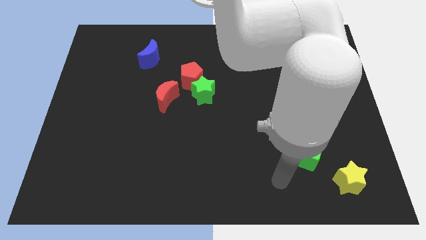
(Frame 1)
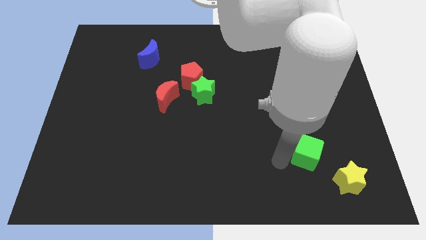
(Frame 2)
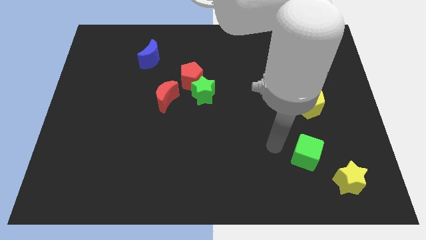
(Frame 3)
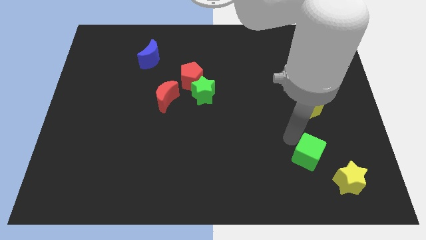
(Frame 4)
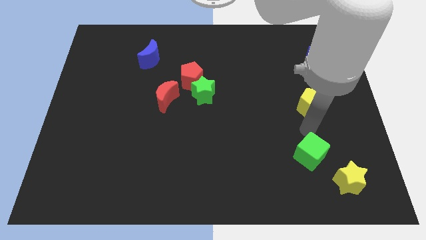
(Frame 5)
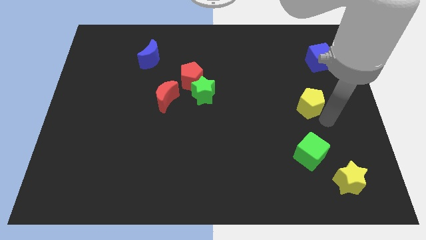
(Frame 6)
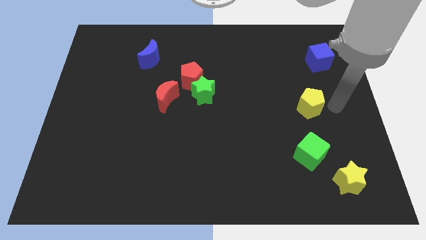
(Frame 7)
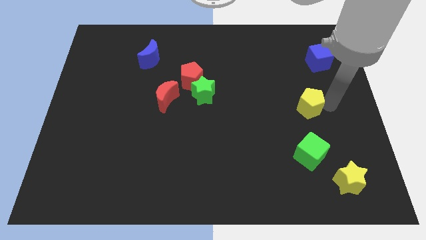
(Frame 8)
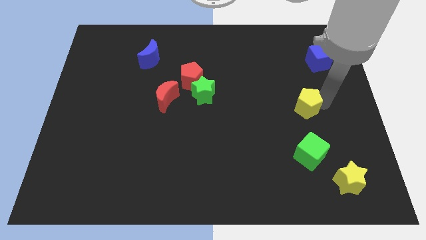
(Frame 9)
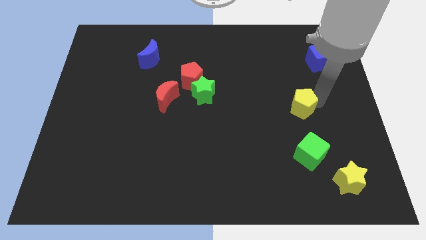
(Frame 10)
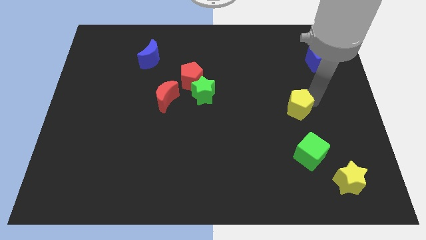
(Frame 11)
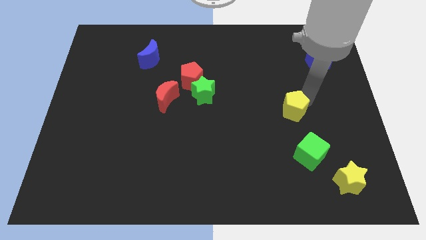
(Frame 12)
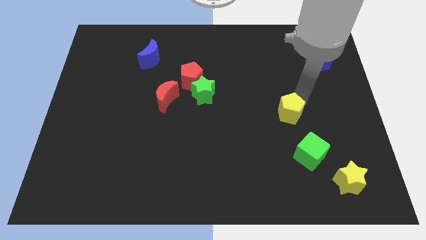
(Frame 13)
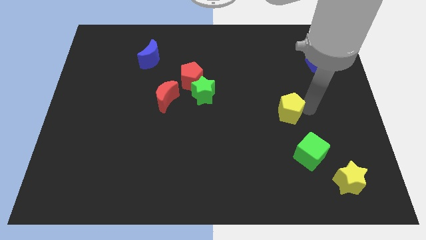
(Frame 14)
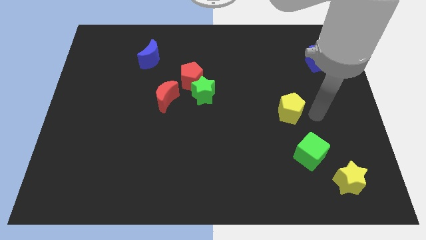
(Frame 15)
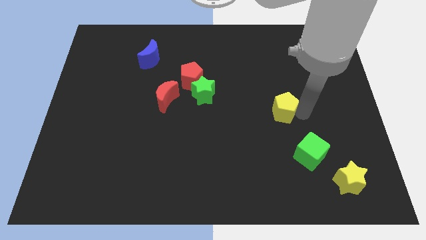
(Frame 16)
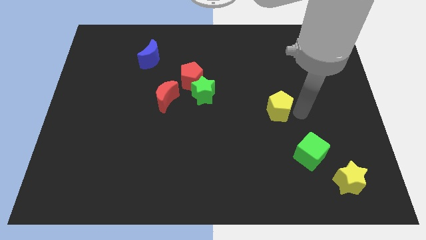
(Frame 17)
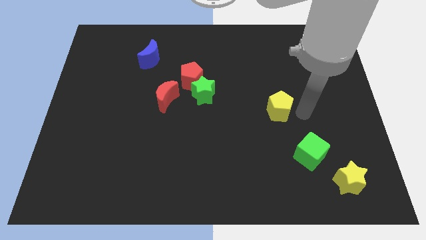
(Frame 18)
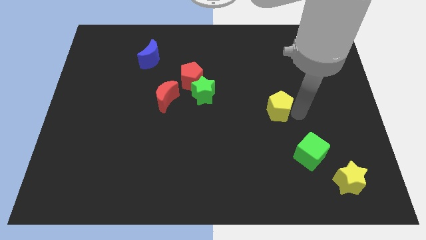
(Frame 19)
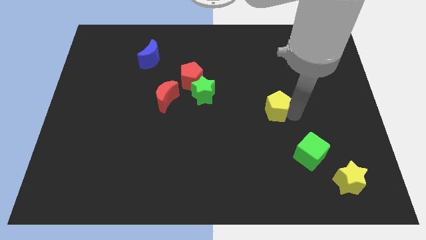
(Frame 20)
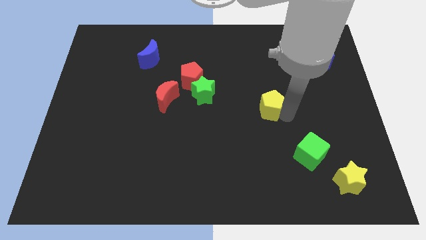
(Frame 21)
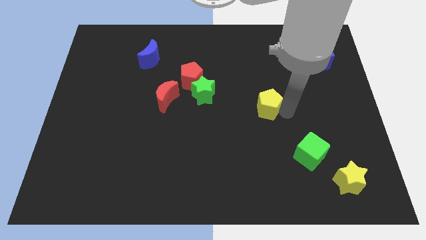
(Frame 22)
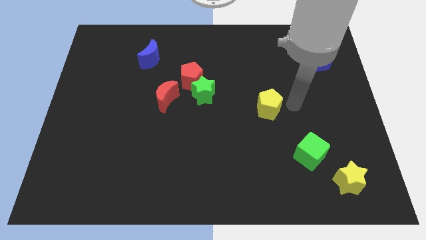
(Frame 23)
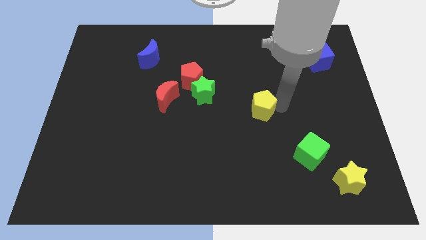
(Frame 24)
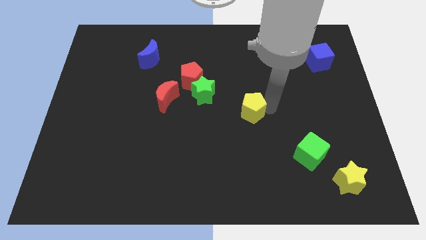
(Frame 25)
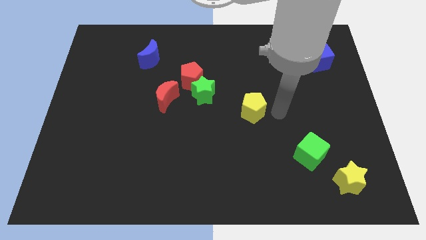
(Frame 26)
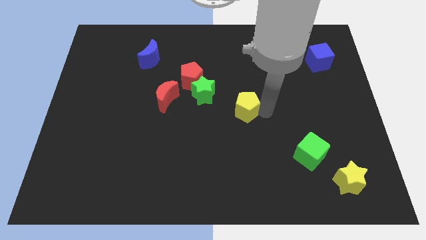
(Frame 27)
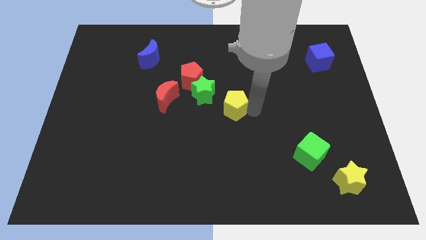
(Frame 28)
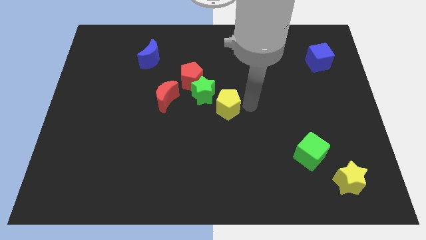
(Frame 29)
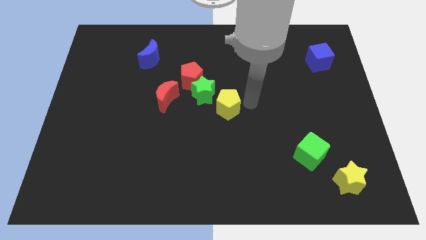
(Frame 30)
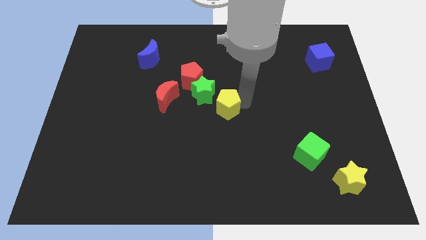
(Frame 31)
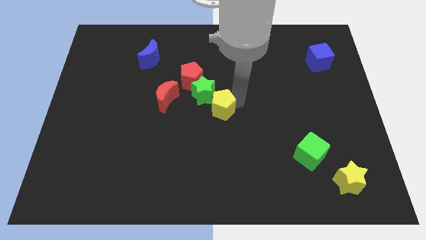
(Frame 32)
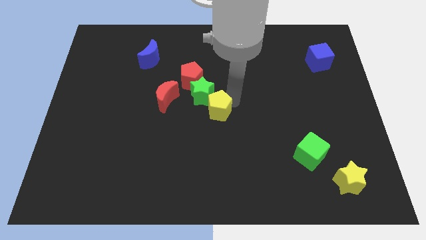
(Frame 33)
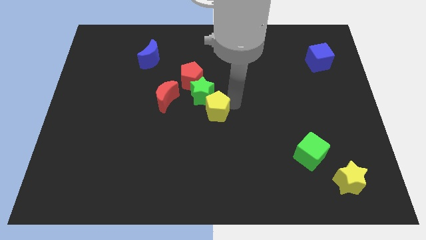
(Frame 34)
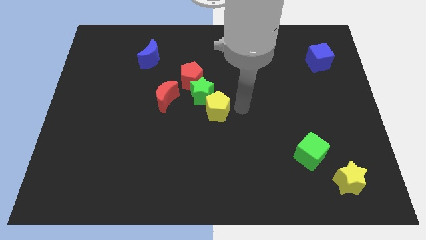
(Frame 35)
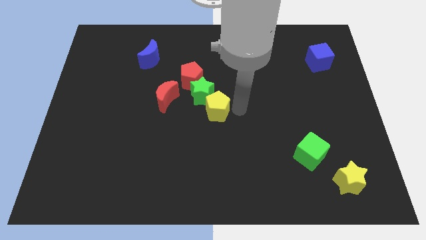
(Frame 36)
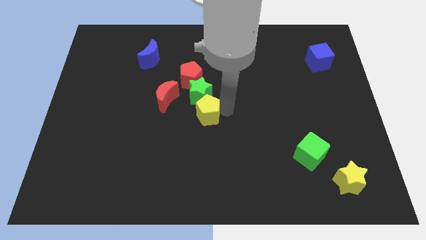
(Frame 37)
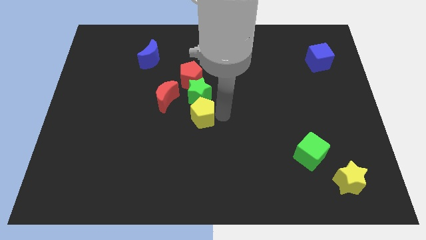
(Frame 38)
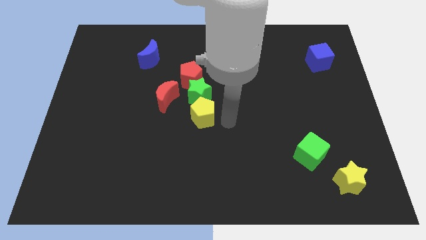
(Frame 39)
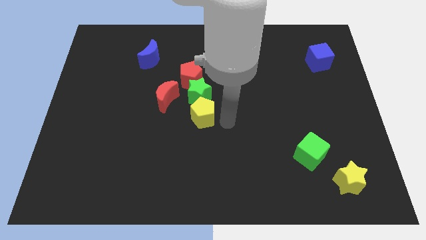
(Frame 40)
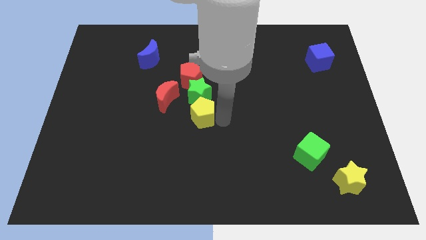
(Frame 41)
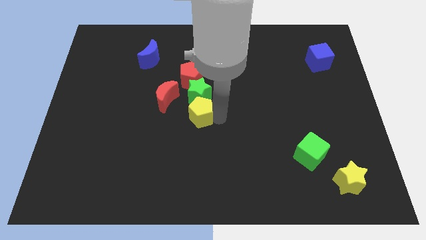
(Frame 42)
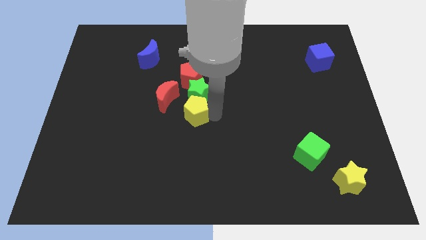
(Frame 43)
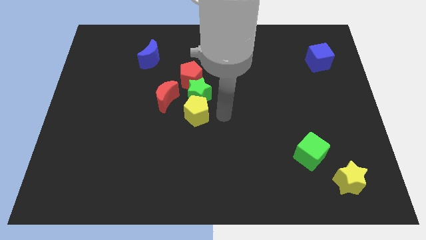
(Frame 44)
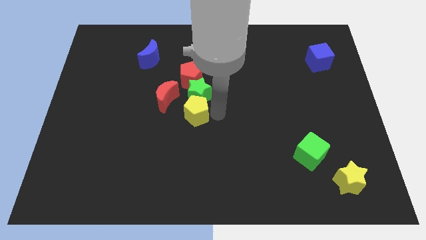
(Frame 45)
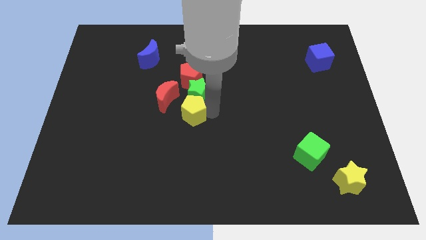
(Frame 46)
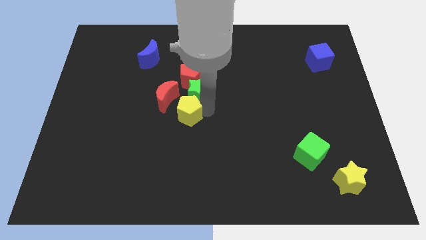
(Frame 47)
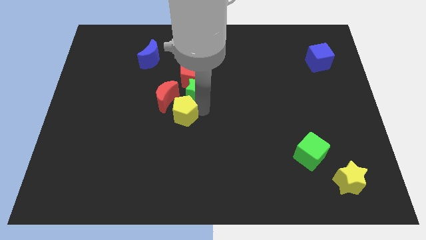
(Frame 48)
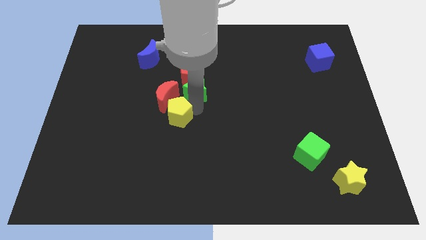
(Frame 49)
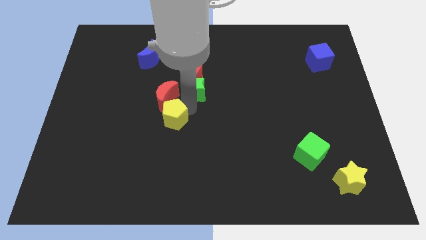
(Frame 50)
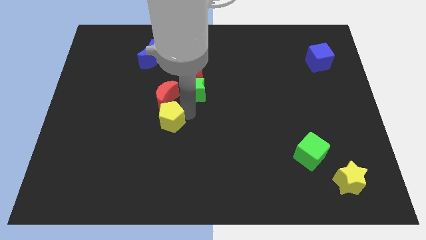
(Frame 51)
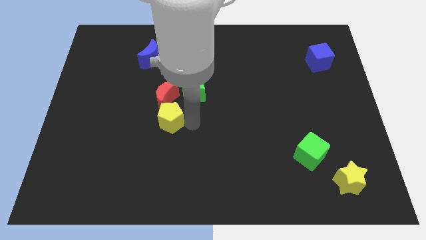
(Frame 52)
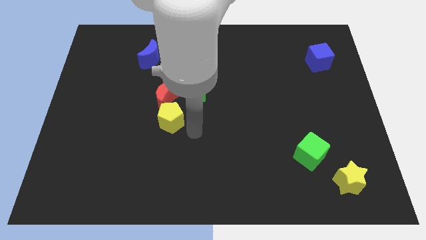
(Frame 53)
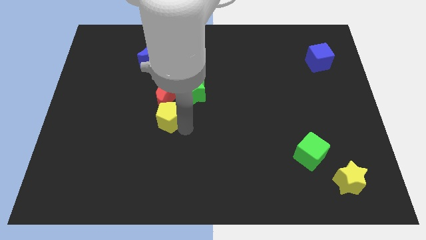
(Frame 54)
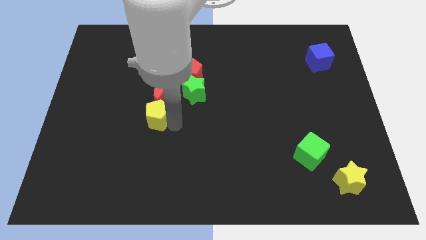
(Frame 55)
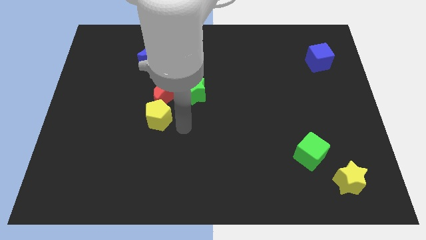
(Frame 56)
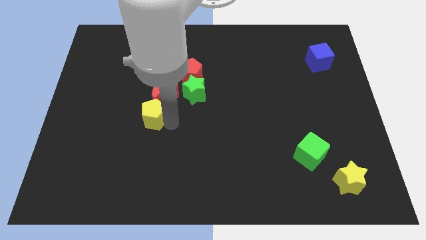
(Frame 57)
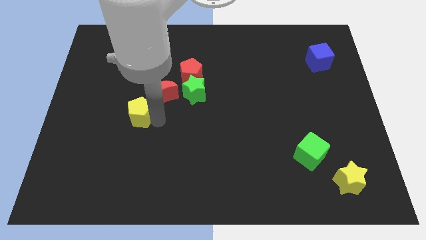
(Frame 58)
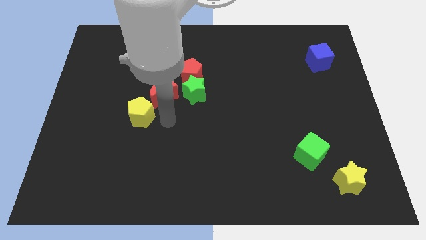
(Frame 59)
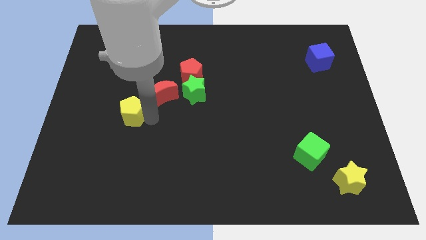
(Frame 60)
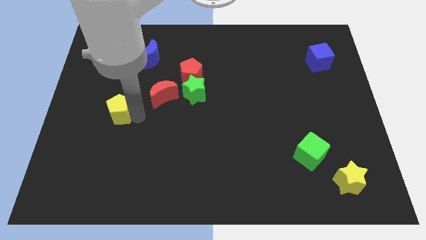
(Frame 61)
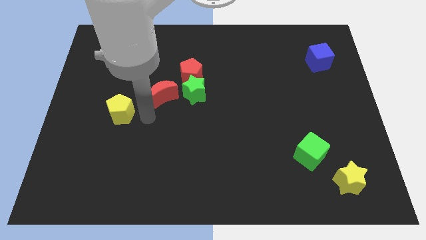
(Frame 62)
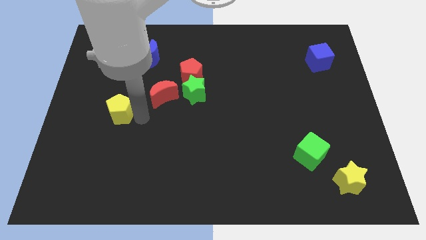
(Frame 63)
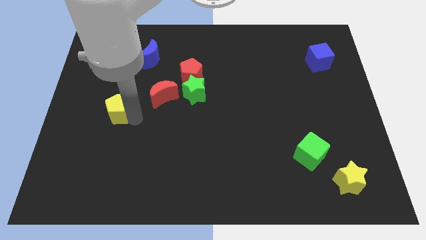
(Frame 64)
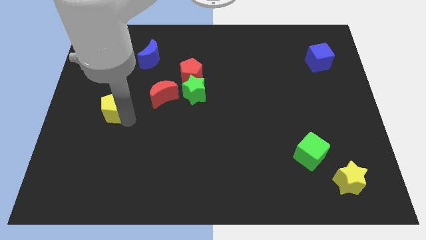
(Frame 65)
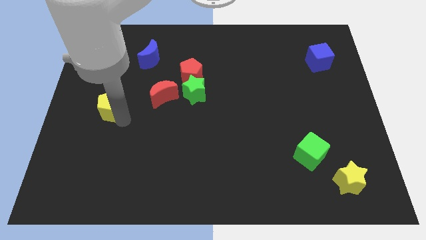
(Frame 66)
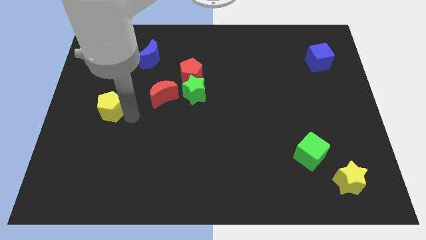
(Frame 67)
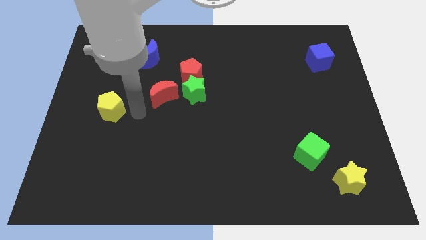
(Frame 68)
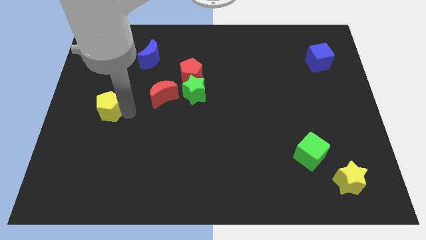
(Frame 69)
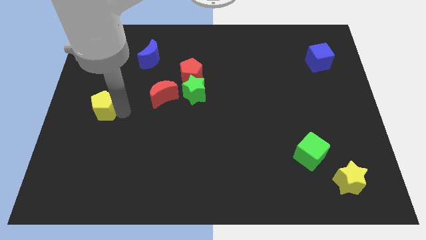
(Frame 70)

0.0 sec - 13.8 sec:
slide the yellow pentagon to the center left
